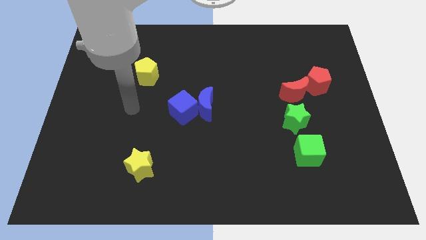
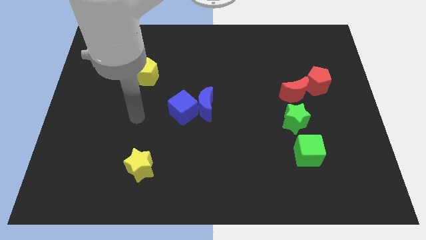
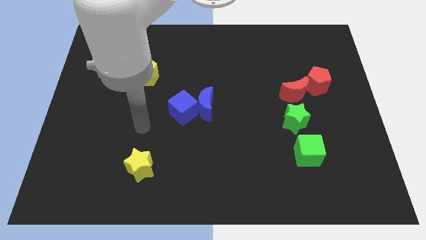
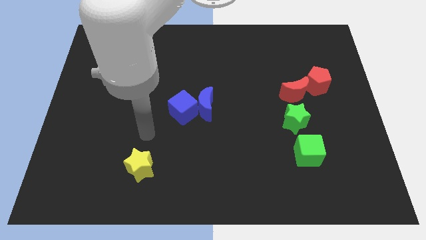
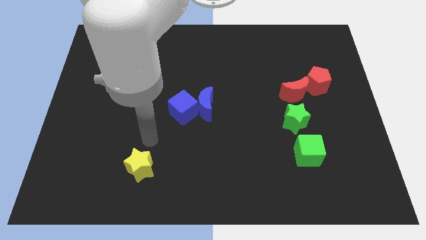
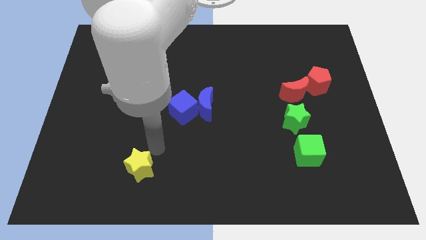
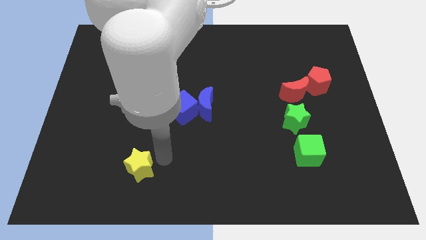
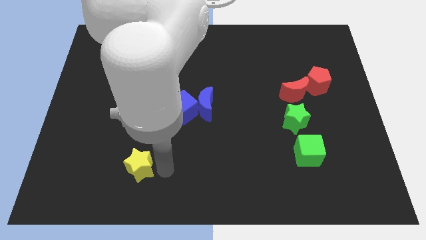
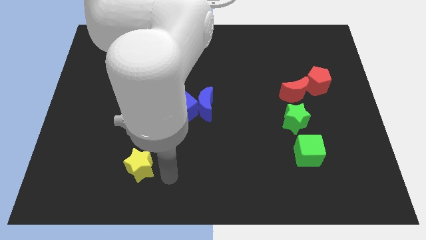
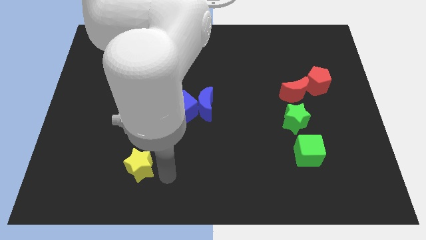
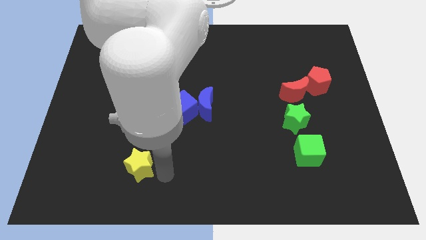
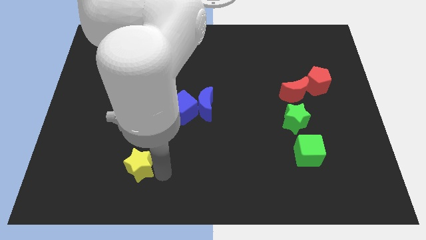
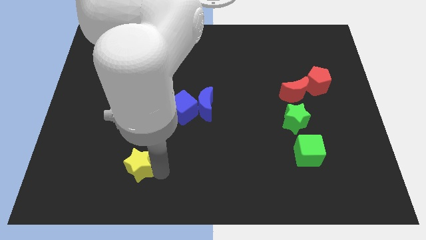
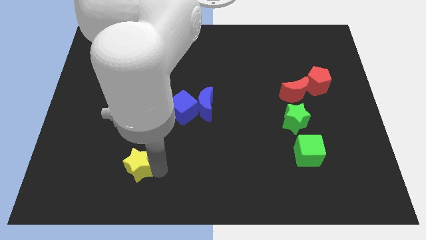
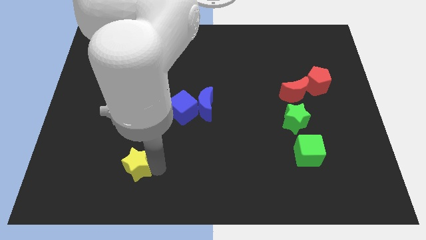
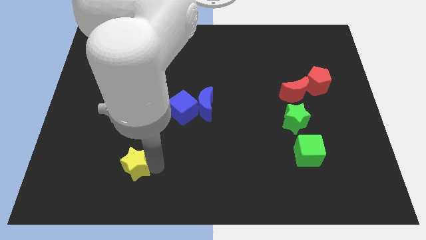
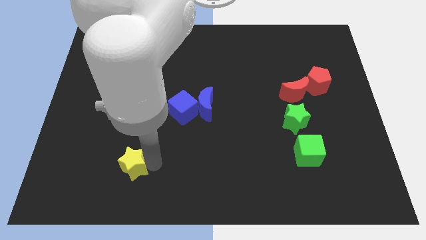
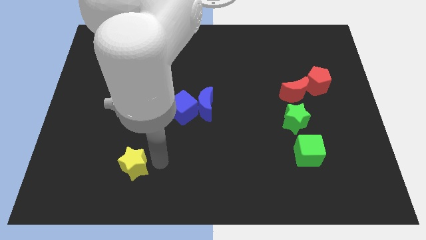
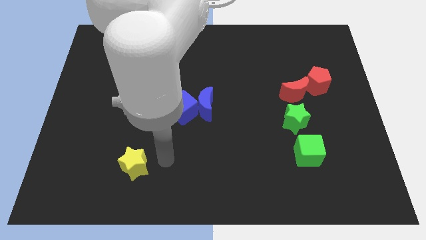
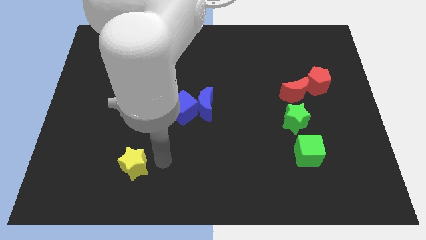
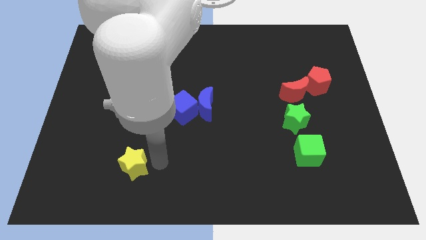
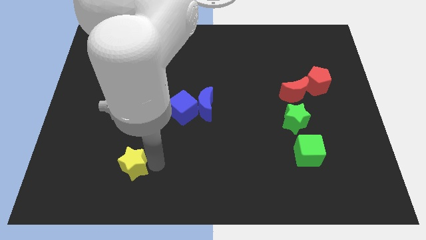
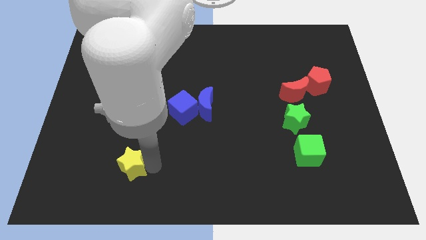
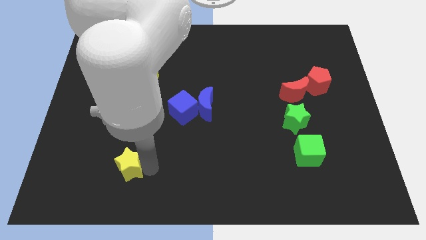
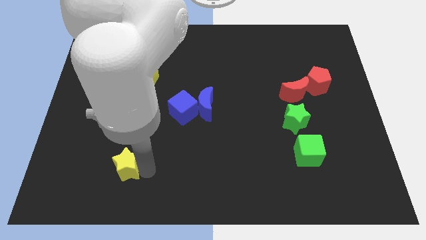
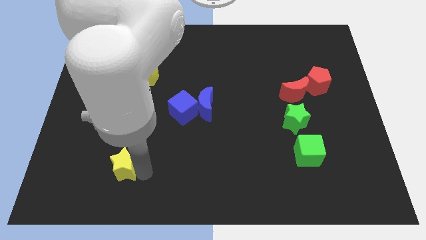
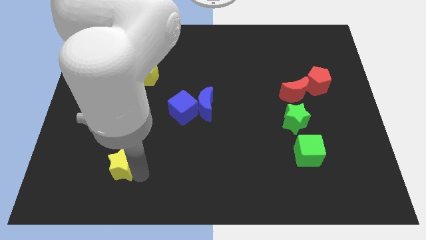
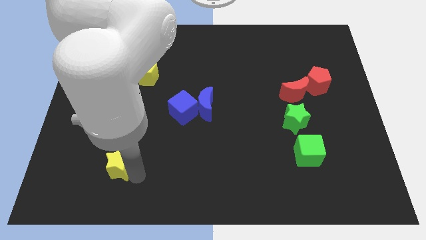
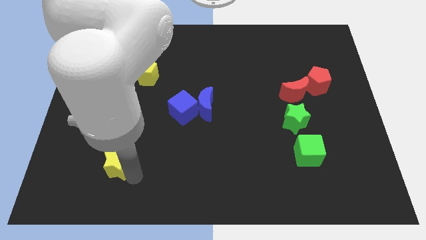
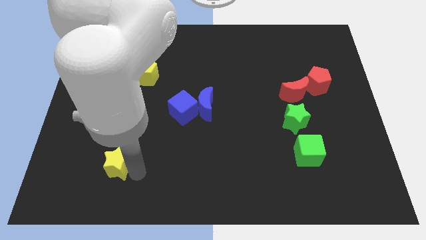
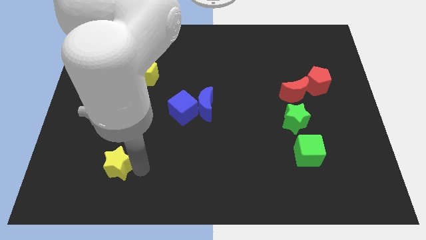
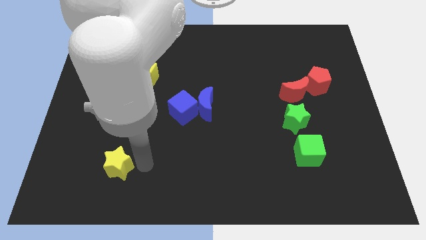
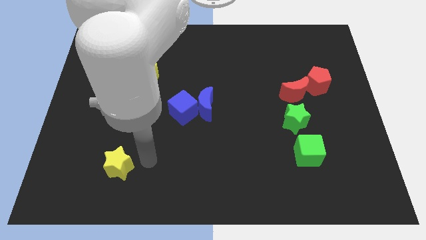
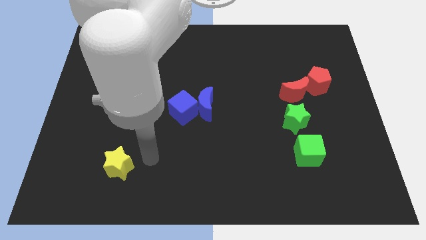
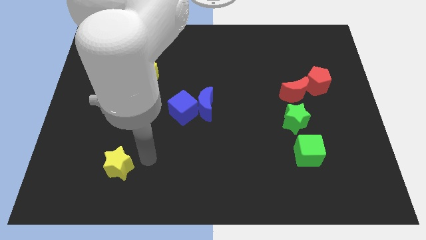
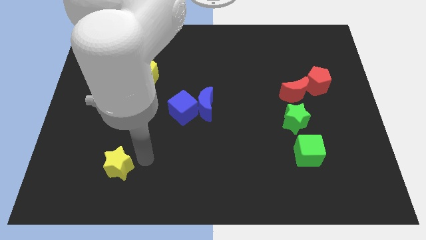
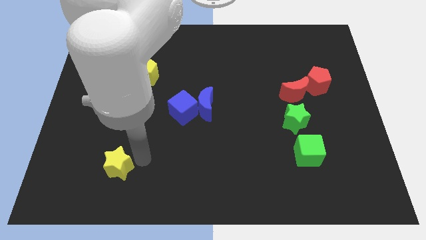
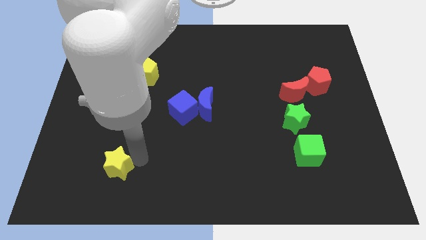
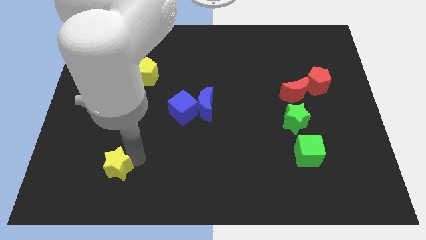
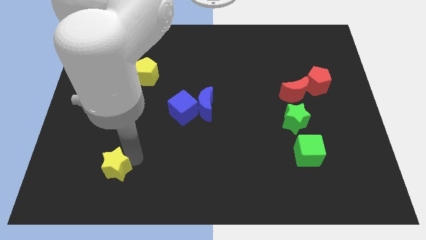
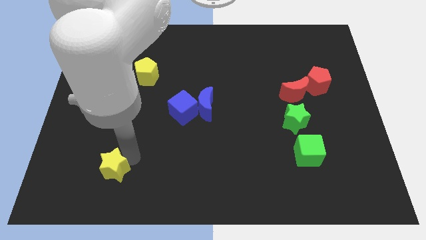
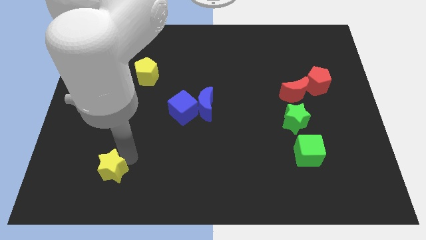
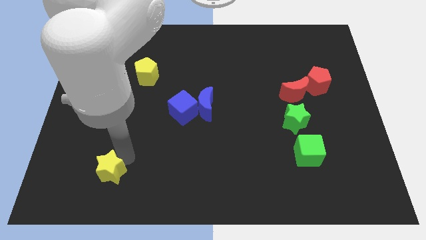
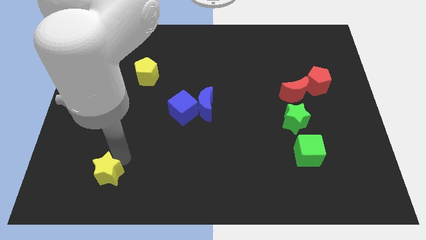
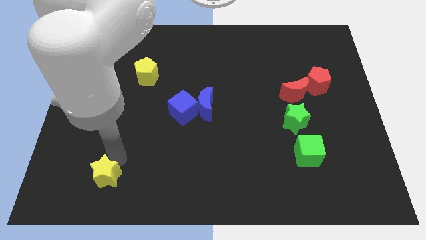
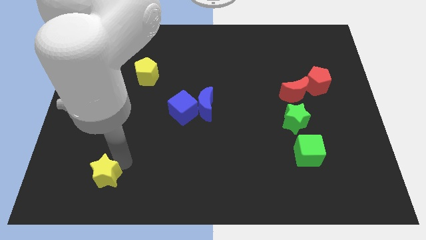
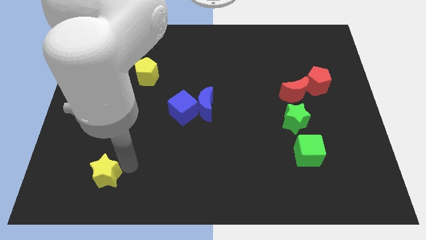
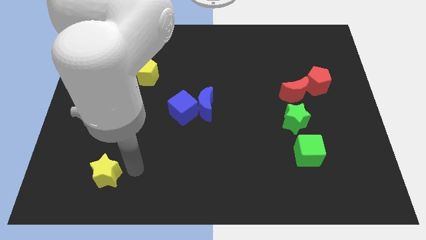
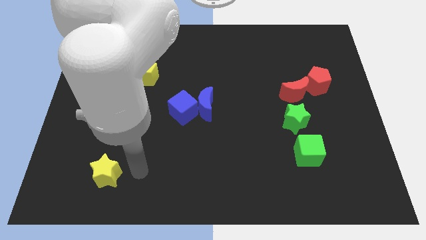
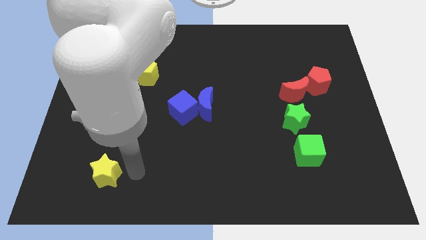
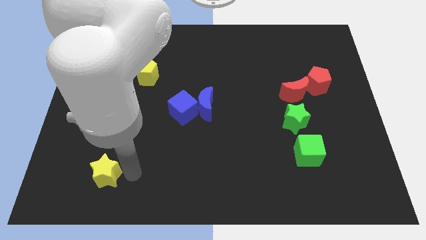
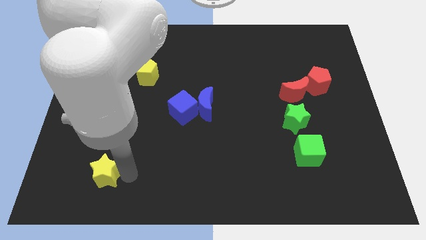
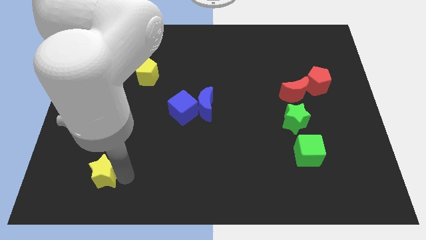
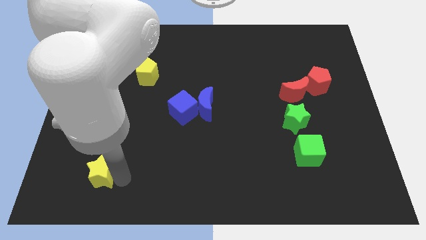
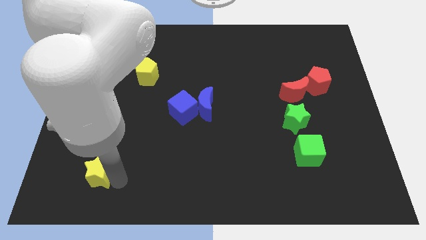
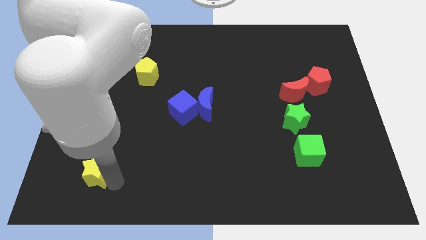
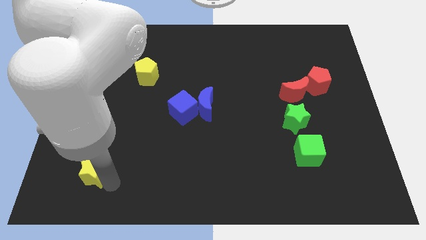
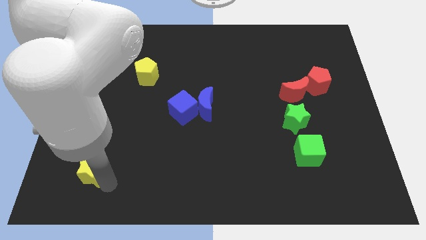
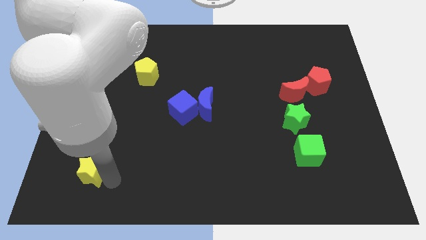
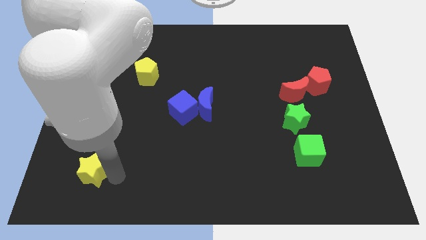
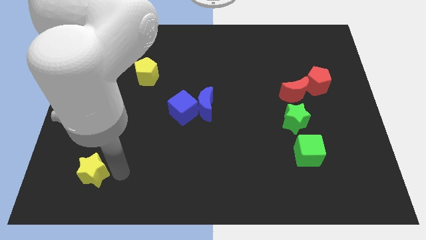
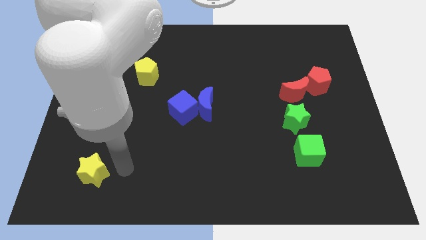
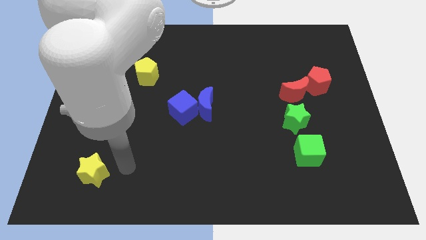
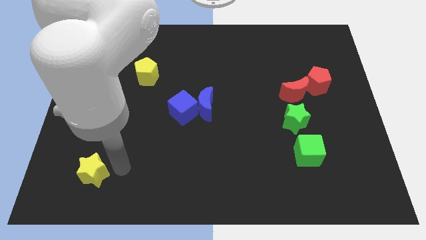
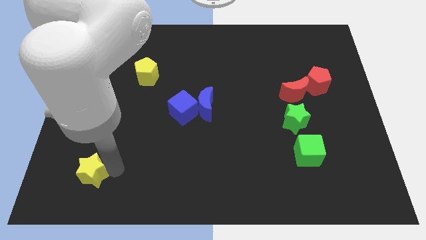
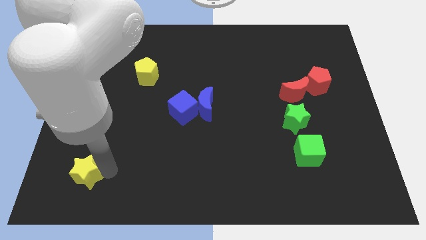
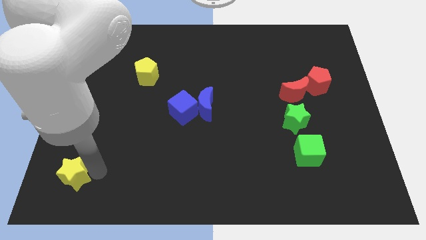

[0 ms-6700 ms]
push the yellow star to the bottom left of the board

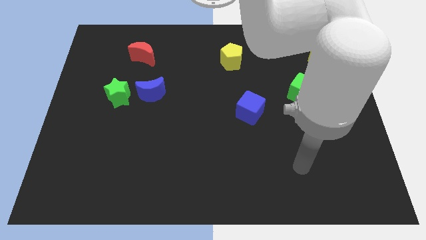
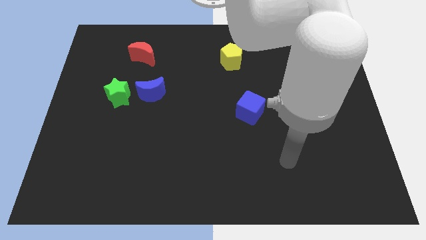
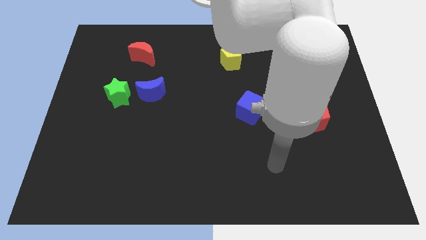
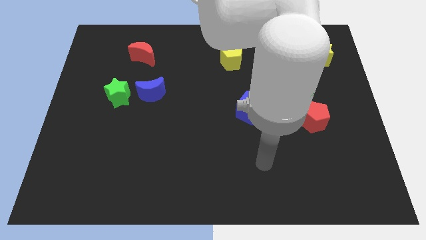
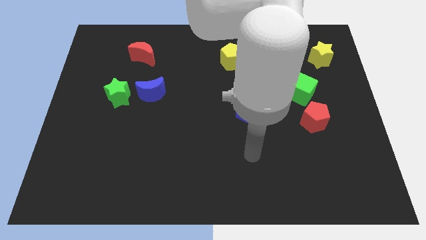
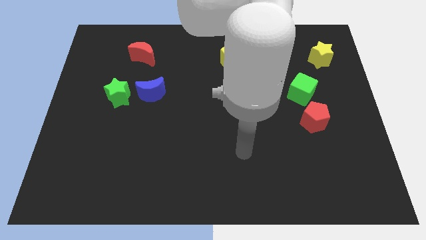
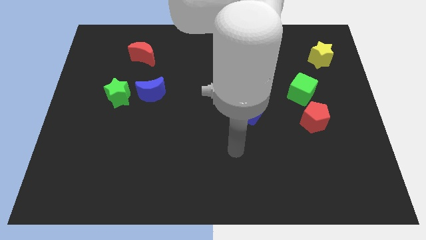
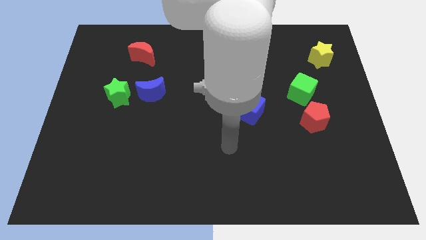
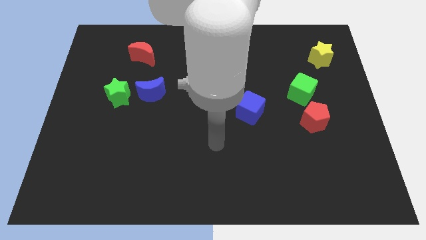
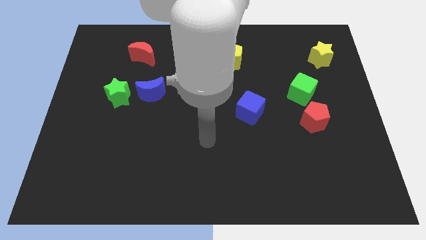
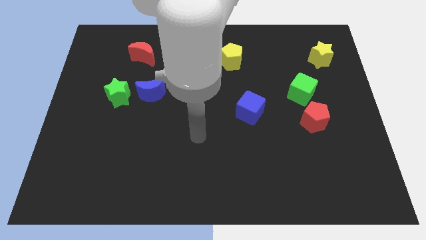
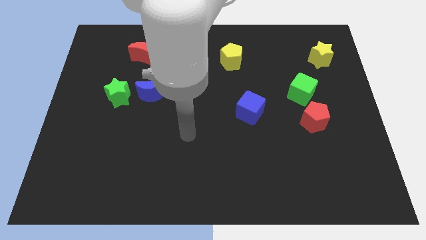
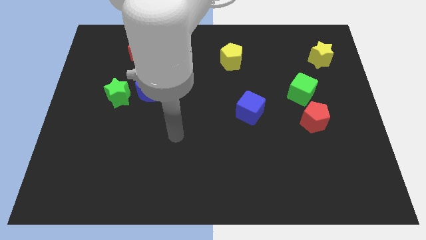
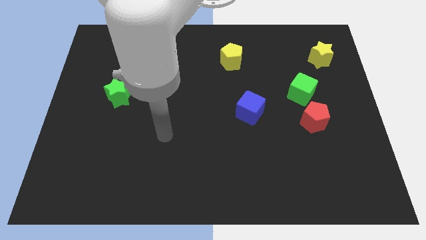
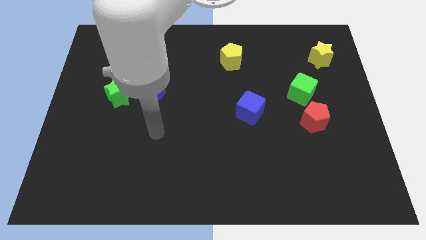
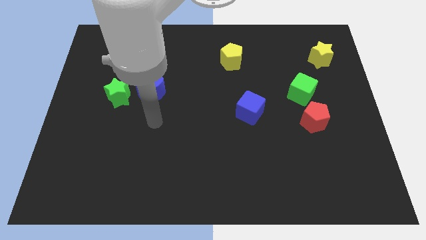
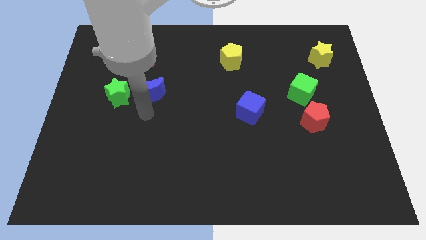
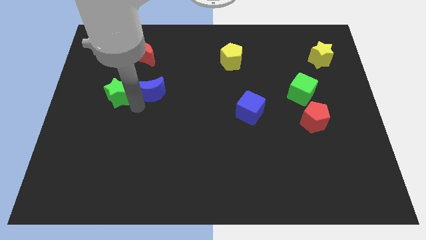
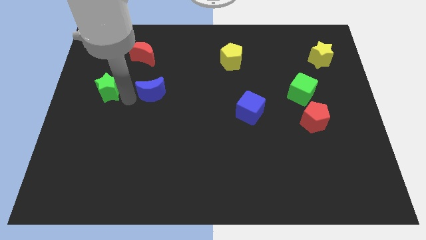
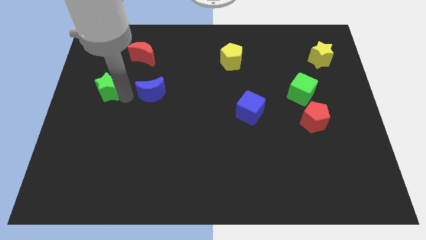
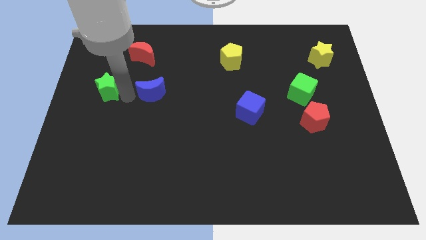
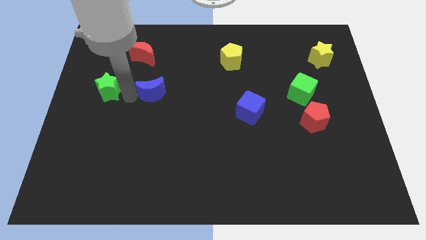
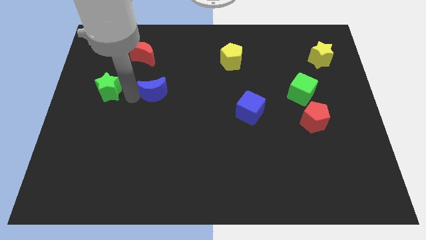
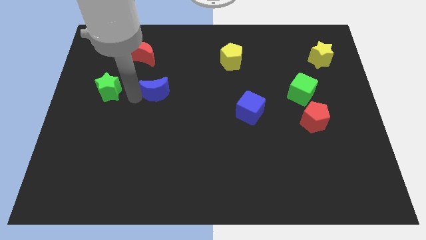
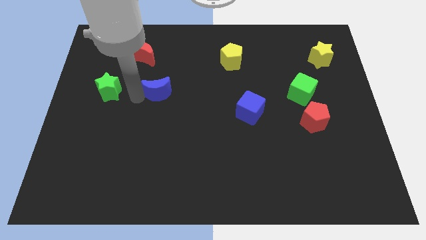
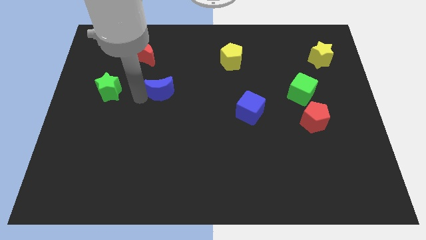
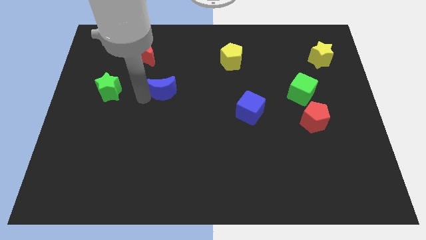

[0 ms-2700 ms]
put the blue moon to the middle
